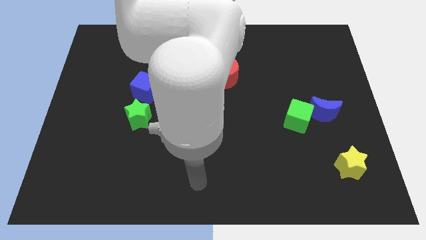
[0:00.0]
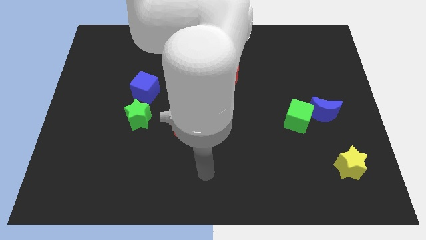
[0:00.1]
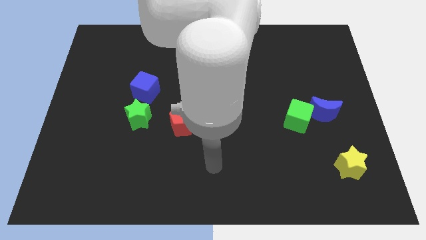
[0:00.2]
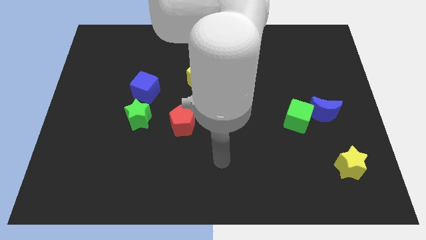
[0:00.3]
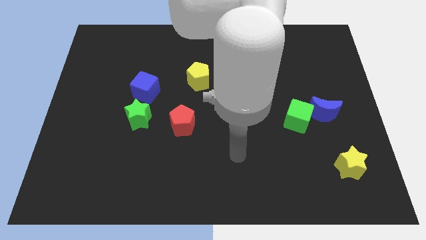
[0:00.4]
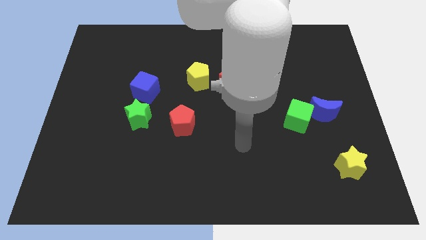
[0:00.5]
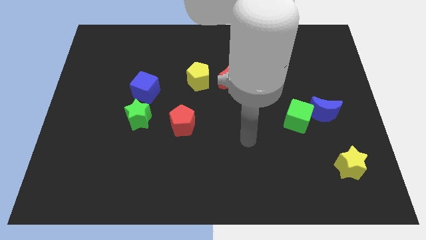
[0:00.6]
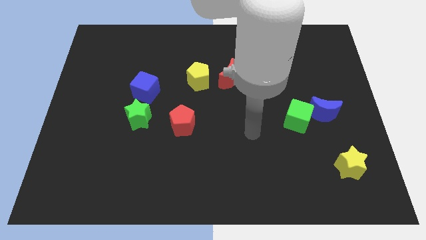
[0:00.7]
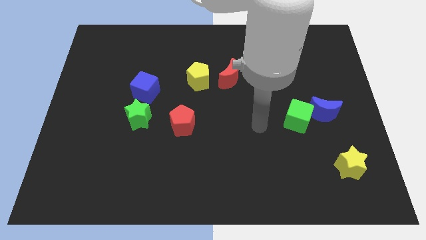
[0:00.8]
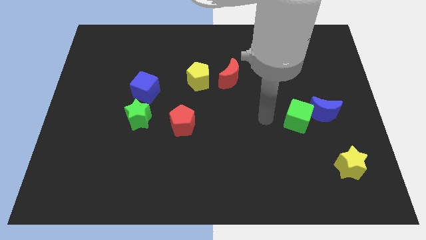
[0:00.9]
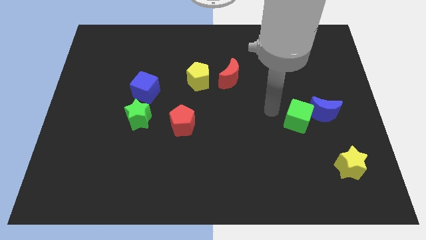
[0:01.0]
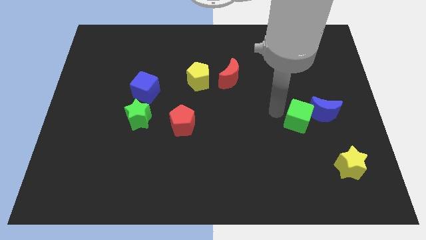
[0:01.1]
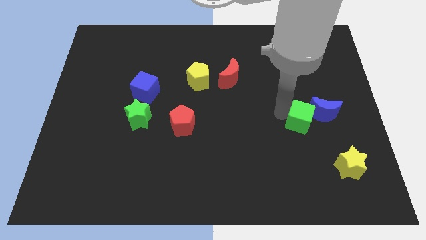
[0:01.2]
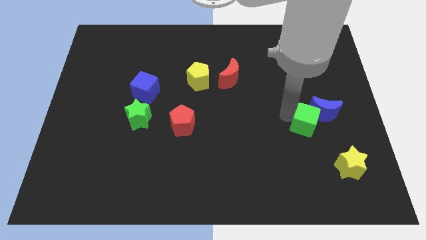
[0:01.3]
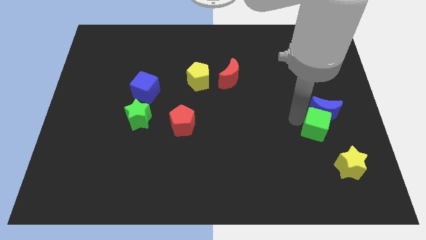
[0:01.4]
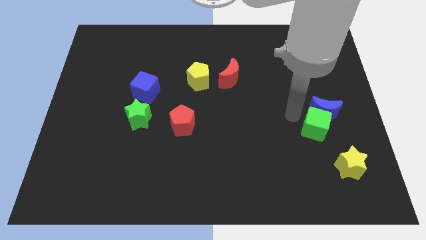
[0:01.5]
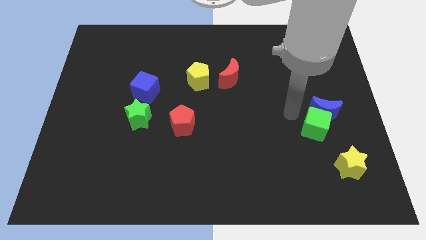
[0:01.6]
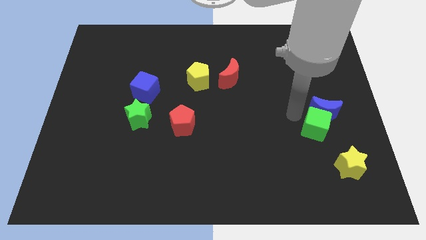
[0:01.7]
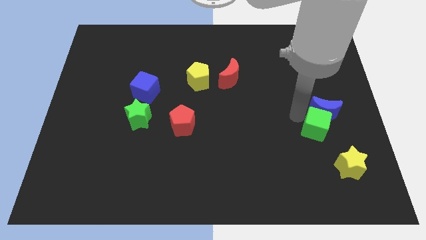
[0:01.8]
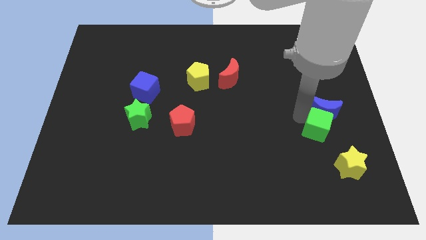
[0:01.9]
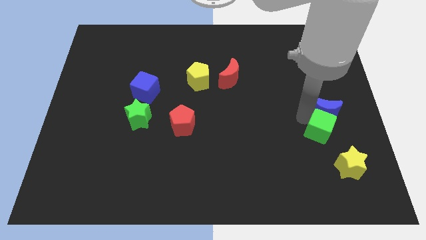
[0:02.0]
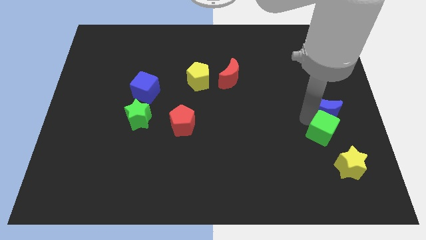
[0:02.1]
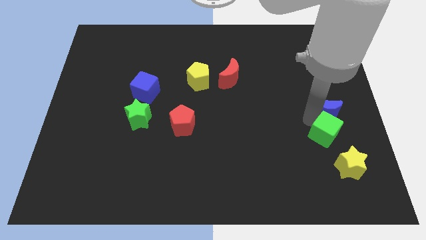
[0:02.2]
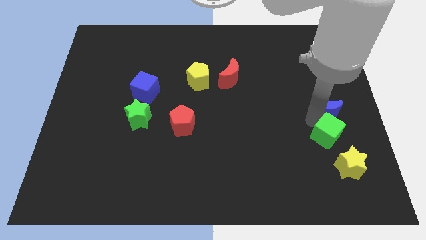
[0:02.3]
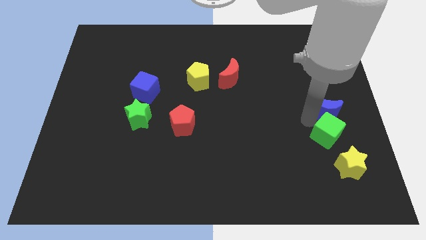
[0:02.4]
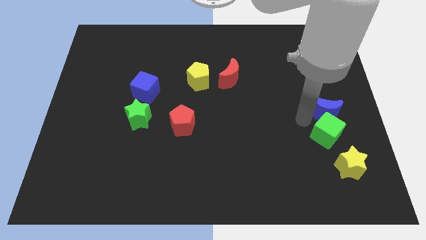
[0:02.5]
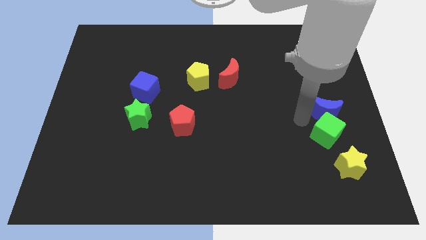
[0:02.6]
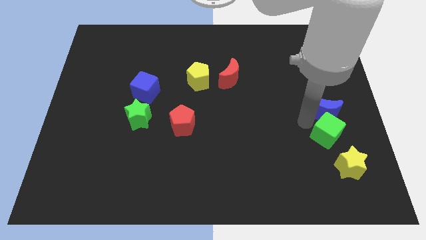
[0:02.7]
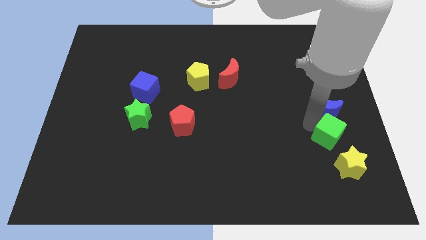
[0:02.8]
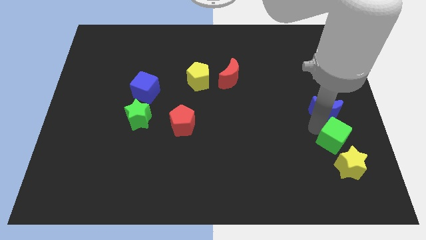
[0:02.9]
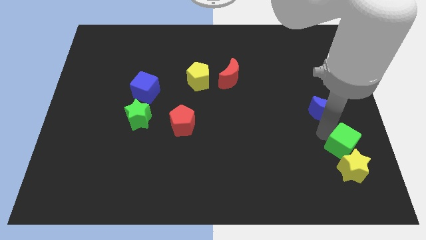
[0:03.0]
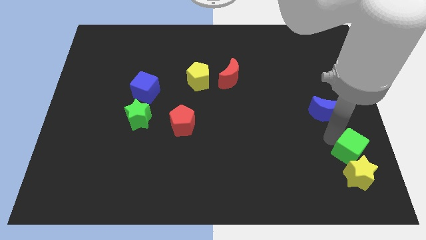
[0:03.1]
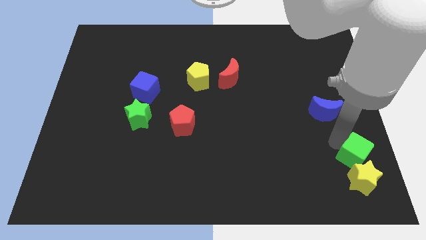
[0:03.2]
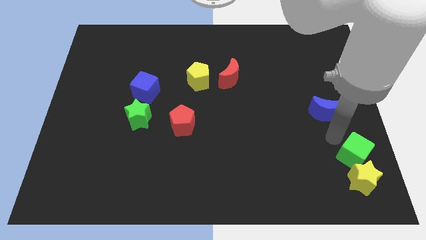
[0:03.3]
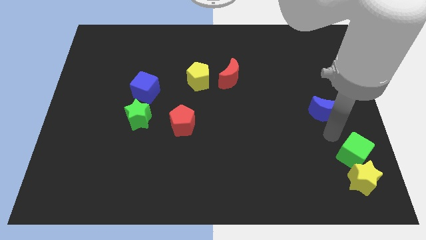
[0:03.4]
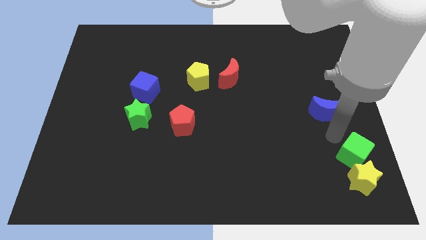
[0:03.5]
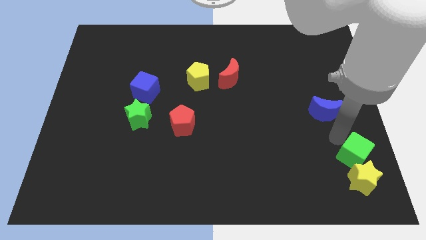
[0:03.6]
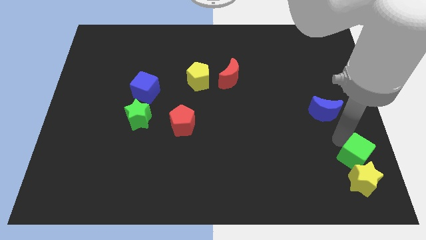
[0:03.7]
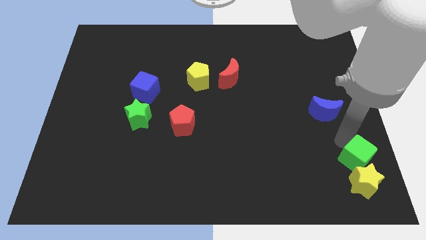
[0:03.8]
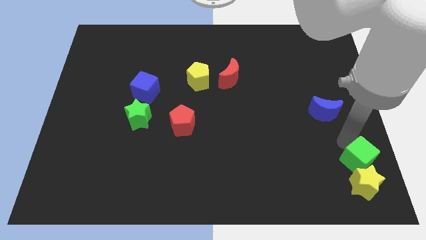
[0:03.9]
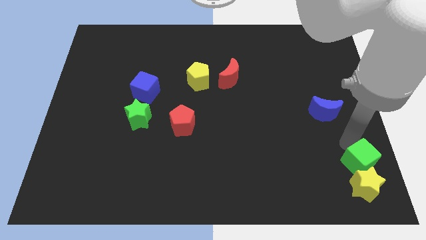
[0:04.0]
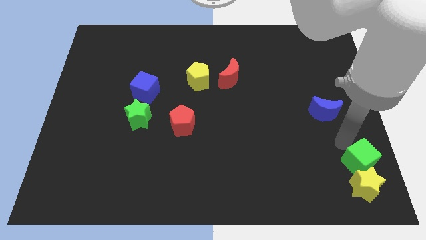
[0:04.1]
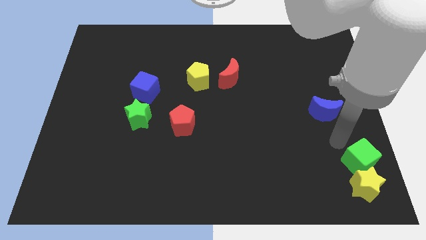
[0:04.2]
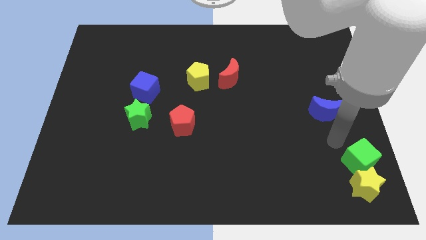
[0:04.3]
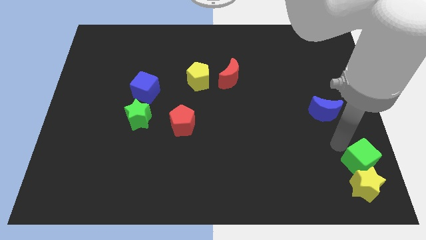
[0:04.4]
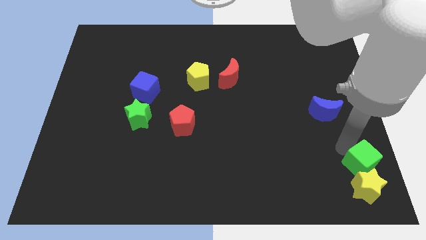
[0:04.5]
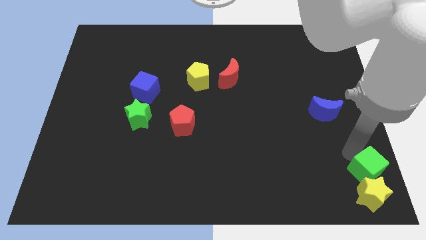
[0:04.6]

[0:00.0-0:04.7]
move the green cube to the bottom right of the board

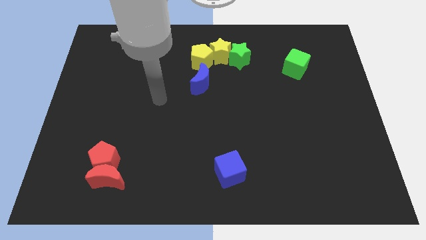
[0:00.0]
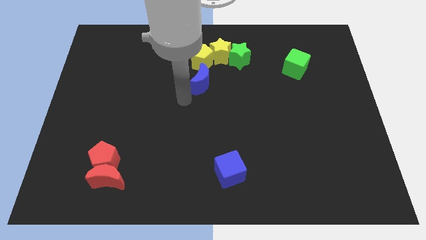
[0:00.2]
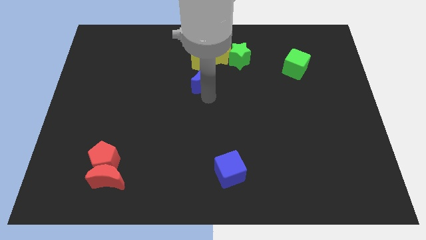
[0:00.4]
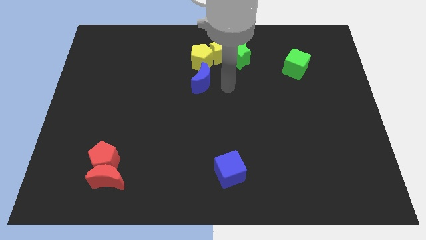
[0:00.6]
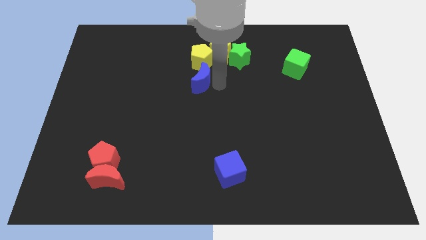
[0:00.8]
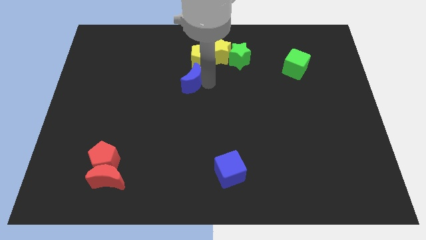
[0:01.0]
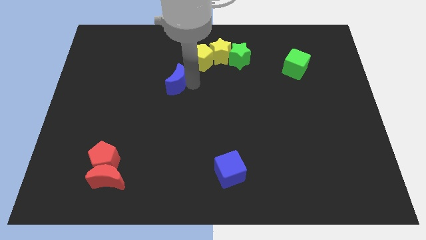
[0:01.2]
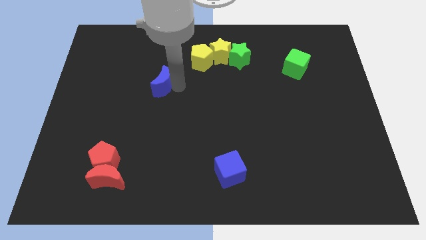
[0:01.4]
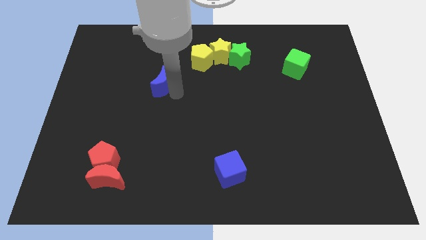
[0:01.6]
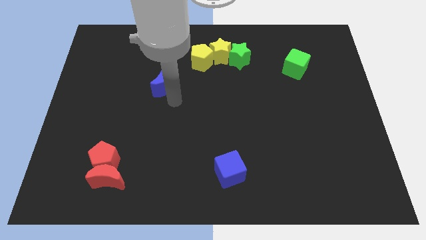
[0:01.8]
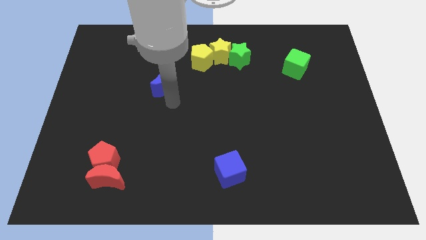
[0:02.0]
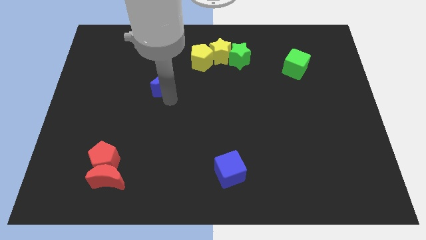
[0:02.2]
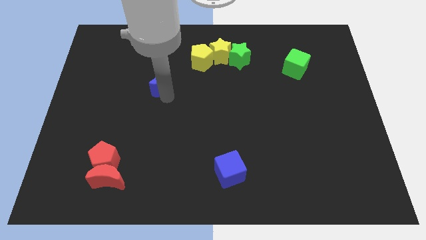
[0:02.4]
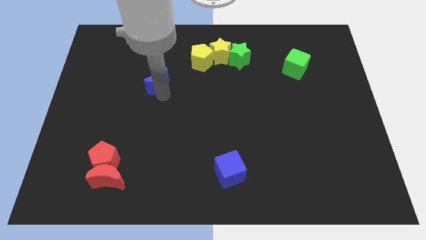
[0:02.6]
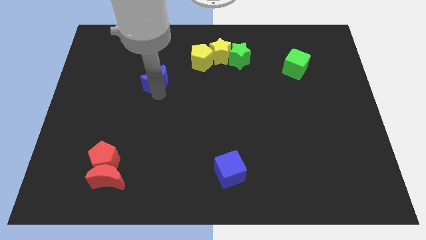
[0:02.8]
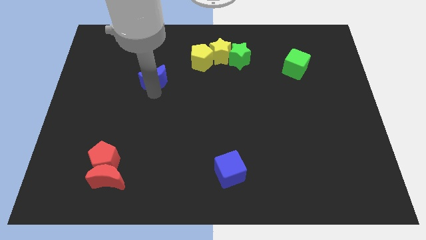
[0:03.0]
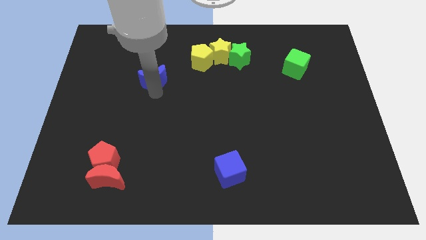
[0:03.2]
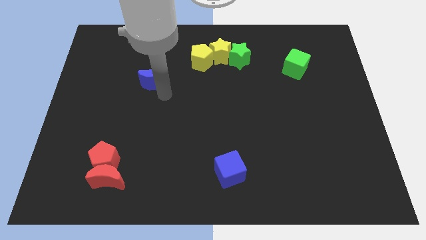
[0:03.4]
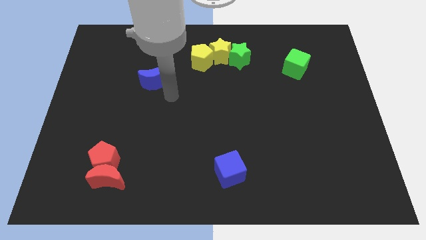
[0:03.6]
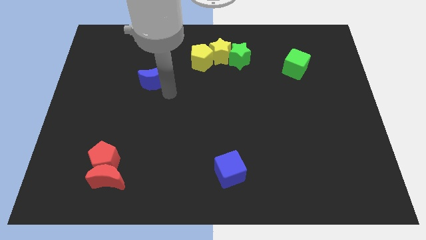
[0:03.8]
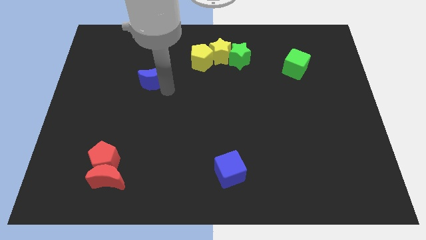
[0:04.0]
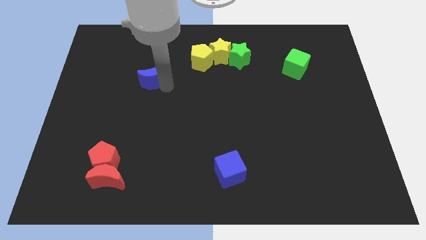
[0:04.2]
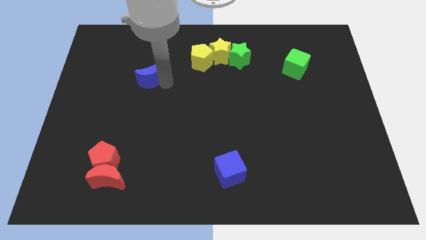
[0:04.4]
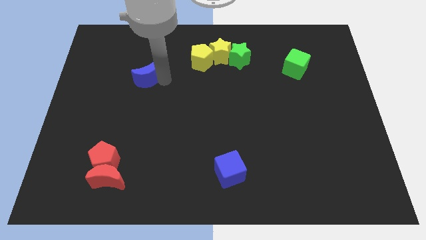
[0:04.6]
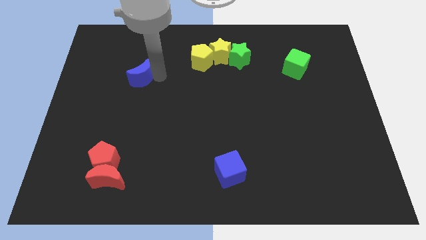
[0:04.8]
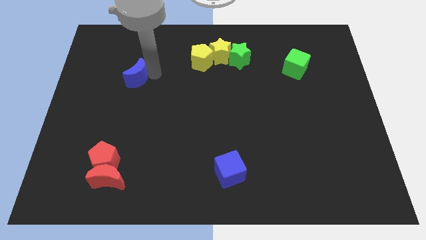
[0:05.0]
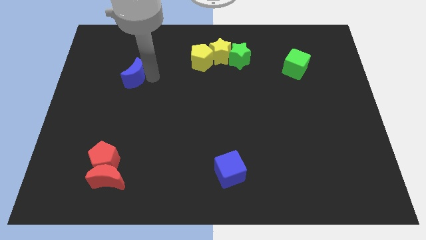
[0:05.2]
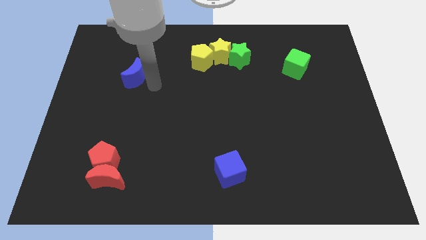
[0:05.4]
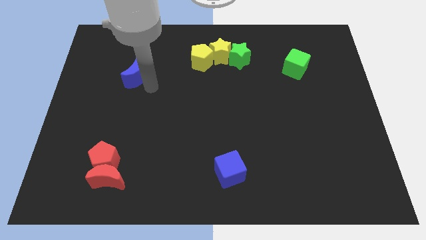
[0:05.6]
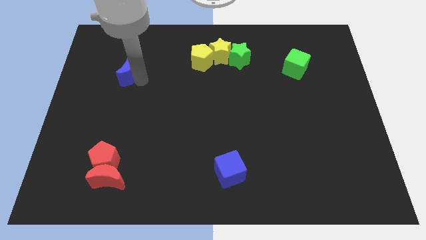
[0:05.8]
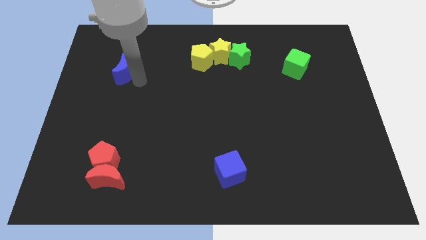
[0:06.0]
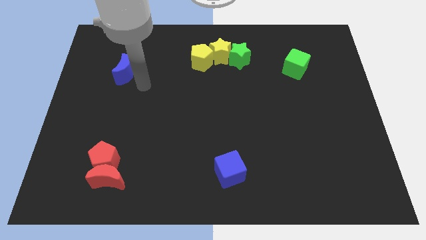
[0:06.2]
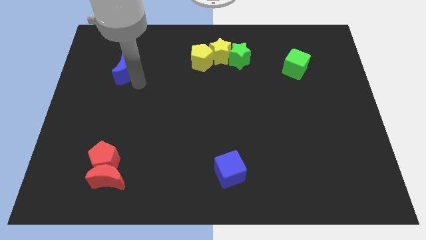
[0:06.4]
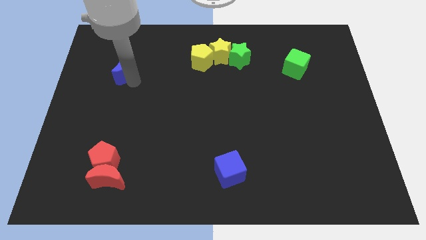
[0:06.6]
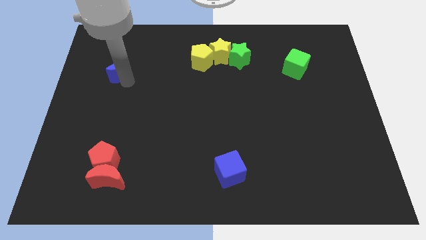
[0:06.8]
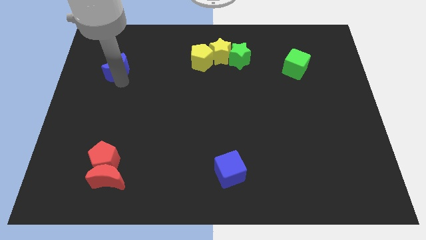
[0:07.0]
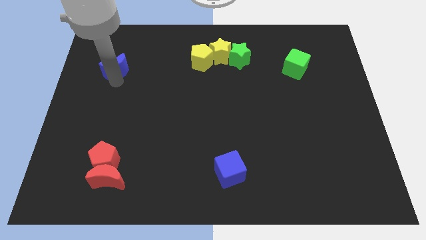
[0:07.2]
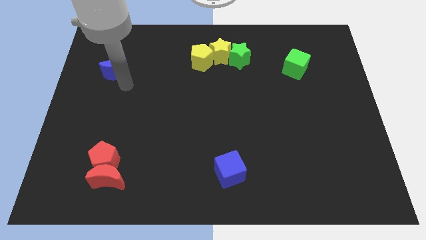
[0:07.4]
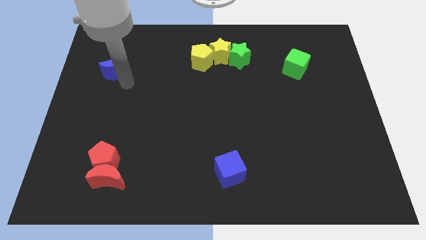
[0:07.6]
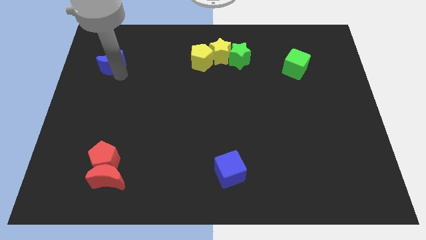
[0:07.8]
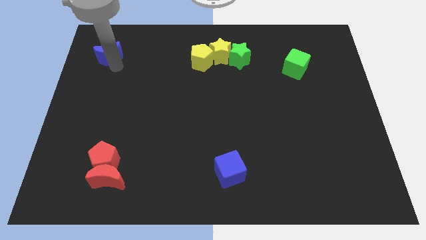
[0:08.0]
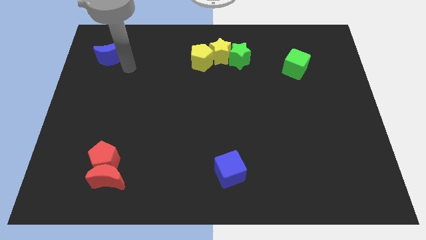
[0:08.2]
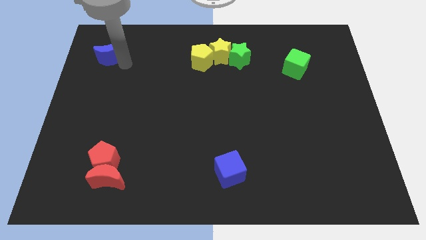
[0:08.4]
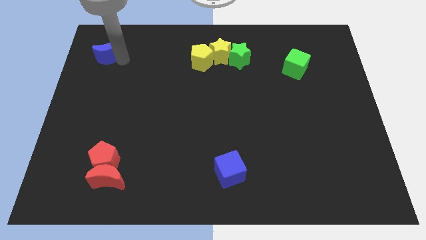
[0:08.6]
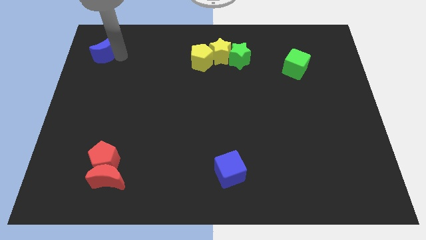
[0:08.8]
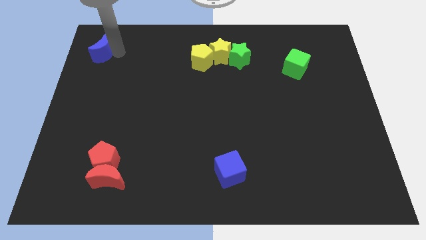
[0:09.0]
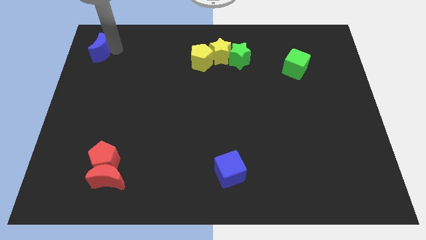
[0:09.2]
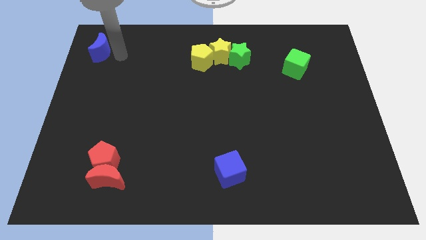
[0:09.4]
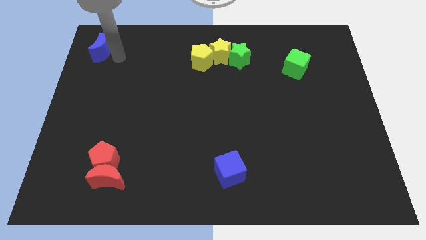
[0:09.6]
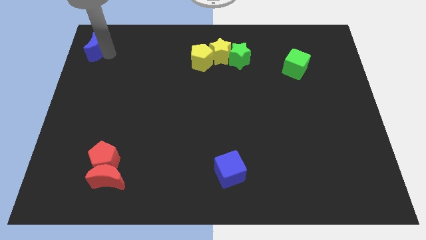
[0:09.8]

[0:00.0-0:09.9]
slide the blue moon to the top left
